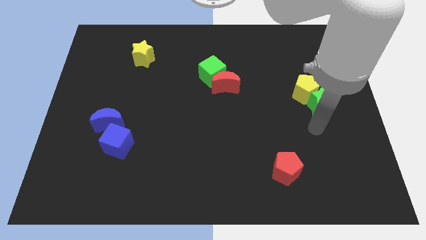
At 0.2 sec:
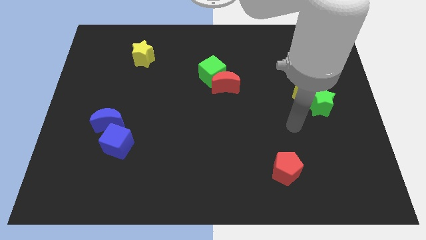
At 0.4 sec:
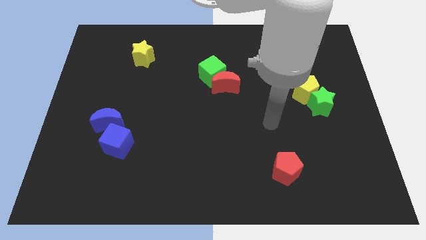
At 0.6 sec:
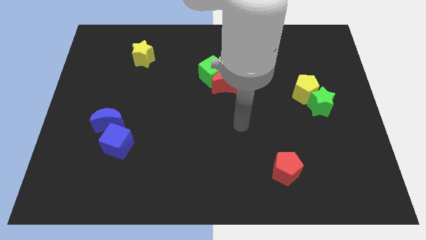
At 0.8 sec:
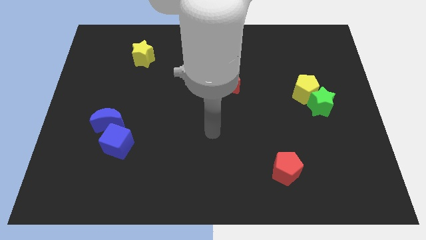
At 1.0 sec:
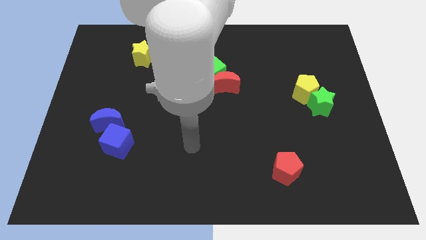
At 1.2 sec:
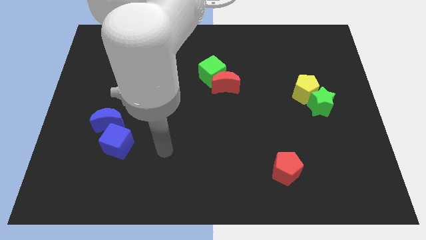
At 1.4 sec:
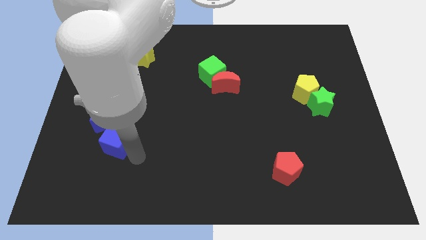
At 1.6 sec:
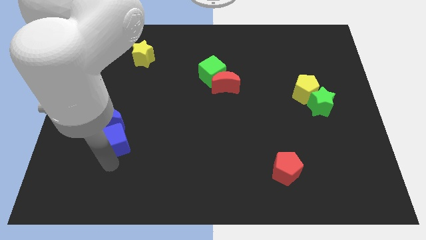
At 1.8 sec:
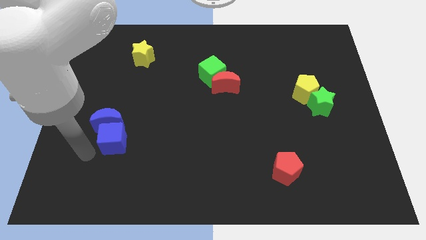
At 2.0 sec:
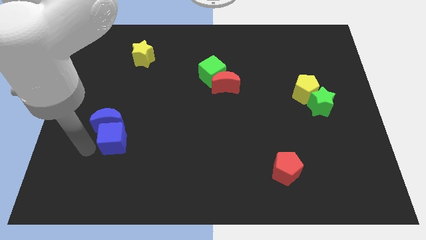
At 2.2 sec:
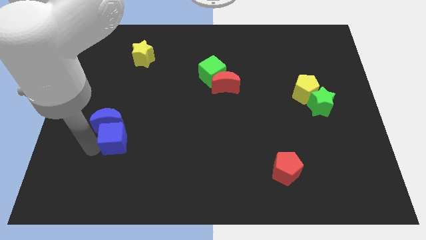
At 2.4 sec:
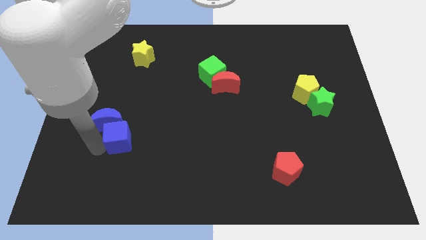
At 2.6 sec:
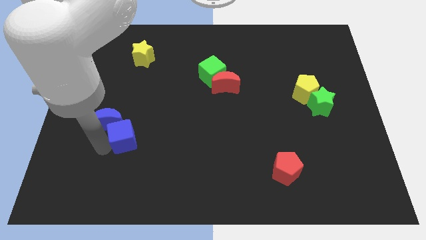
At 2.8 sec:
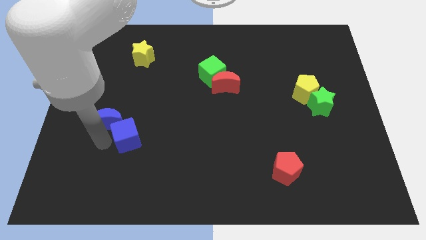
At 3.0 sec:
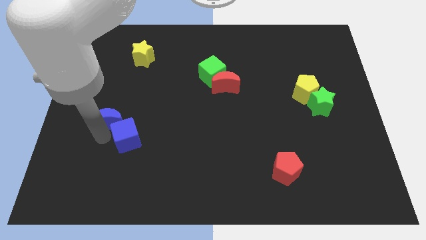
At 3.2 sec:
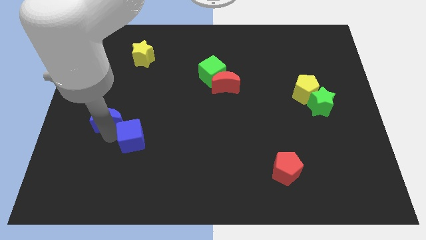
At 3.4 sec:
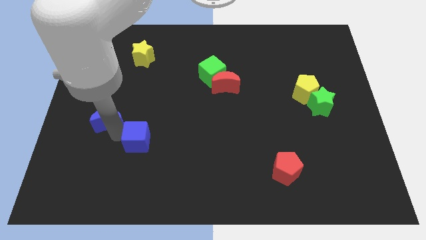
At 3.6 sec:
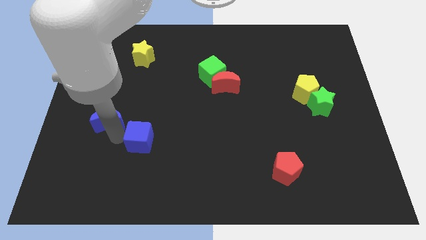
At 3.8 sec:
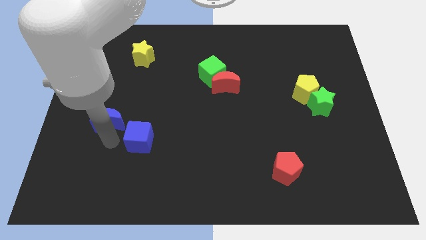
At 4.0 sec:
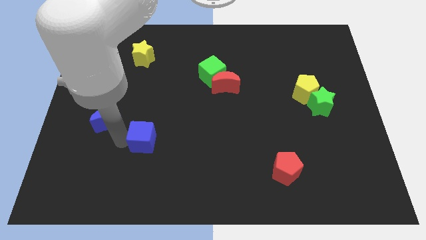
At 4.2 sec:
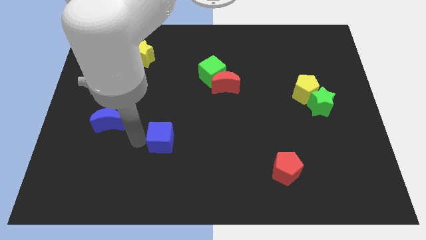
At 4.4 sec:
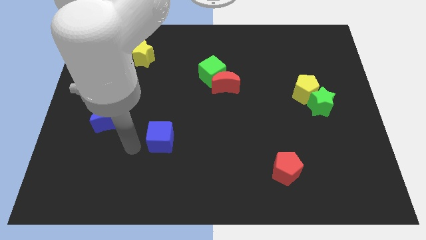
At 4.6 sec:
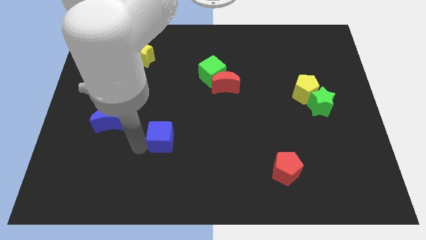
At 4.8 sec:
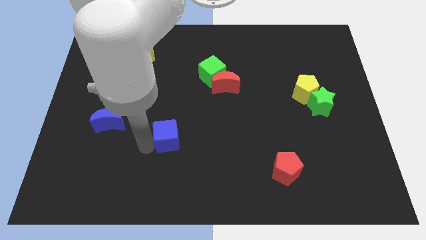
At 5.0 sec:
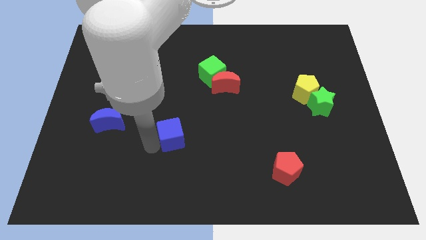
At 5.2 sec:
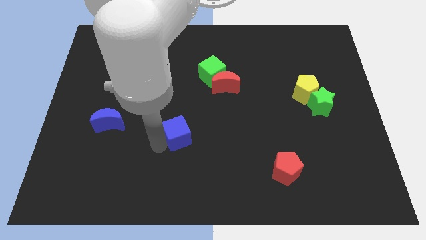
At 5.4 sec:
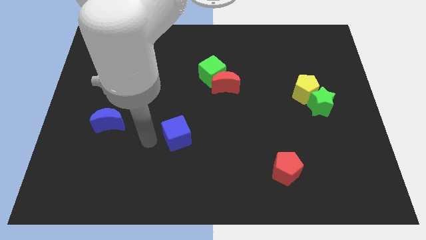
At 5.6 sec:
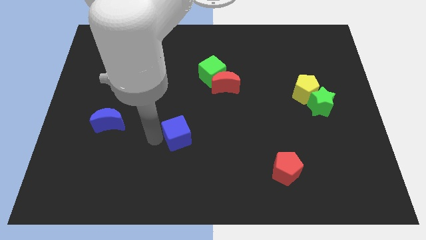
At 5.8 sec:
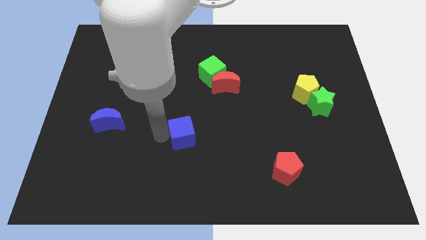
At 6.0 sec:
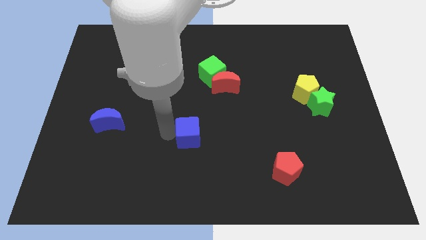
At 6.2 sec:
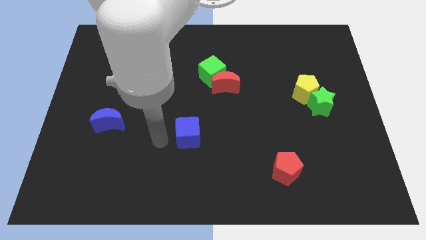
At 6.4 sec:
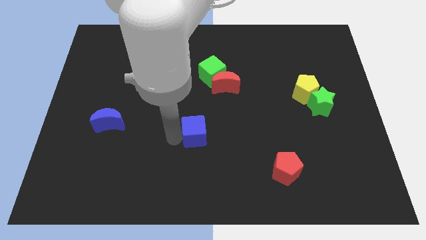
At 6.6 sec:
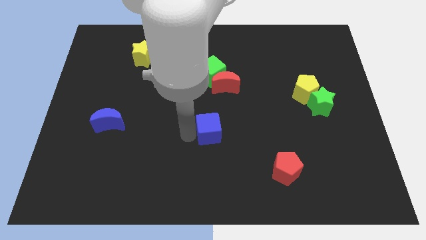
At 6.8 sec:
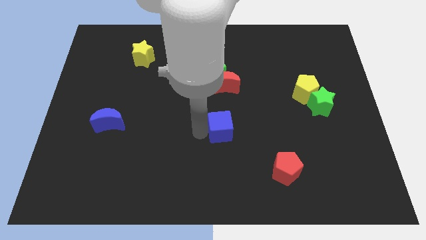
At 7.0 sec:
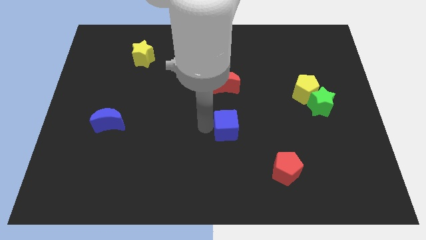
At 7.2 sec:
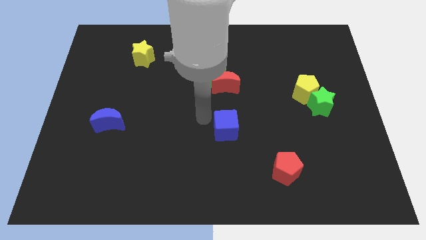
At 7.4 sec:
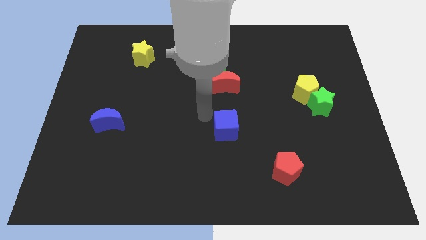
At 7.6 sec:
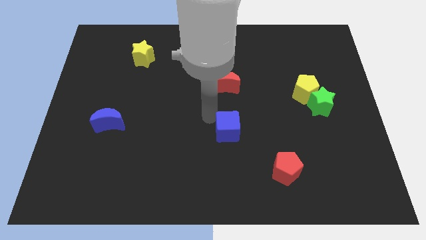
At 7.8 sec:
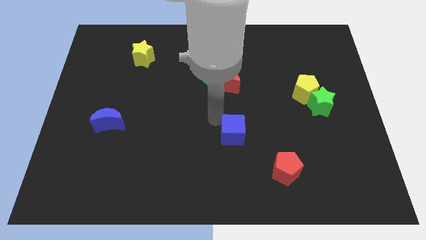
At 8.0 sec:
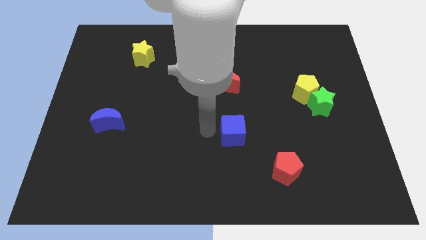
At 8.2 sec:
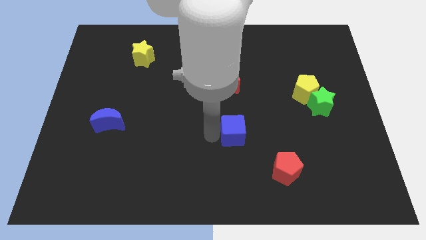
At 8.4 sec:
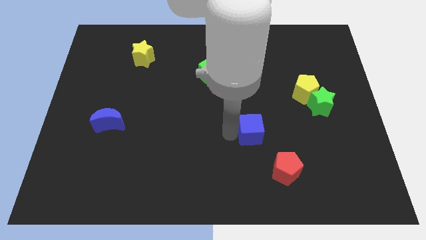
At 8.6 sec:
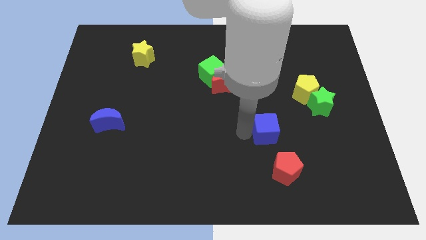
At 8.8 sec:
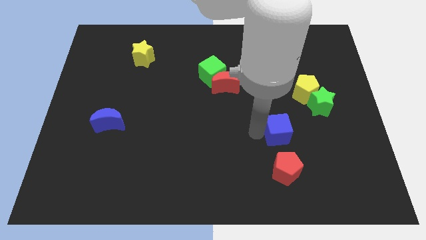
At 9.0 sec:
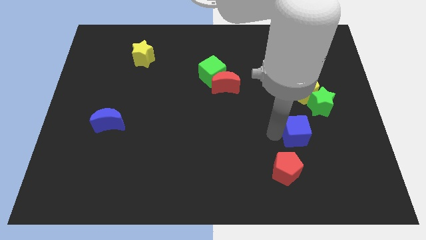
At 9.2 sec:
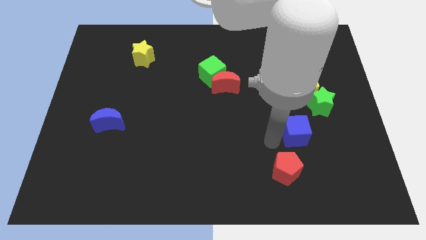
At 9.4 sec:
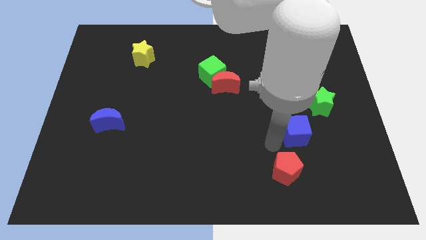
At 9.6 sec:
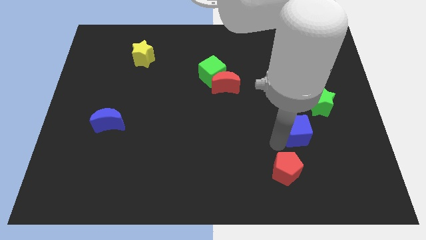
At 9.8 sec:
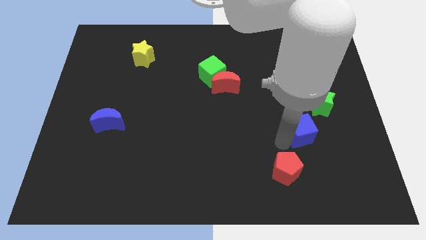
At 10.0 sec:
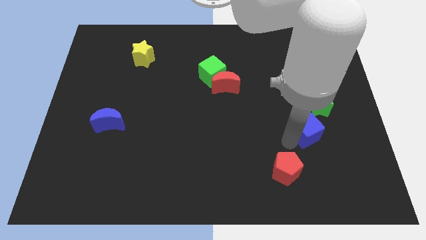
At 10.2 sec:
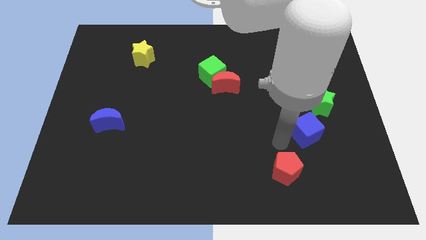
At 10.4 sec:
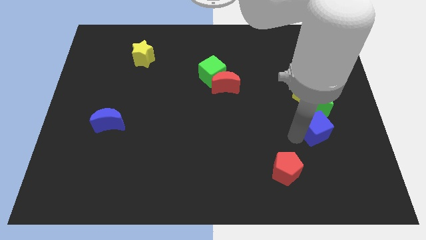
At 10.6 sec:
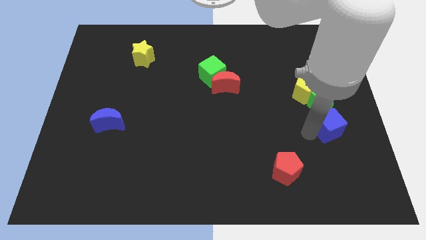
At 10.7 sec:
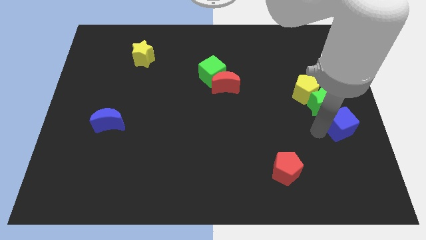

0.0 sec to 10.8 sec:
push the blue cube to the right side of the board

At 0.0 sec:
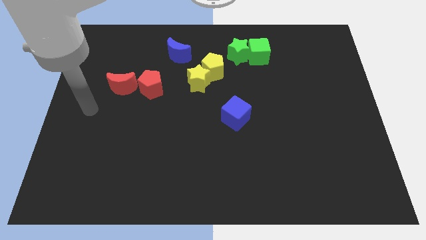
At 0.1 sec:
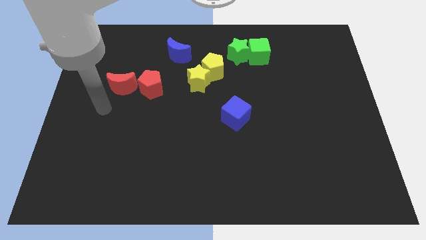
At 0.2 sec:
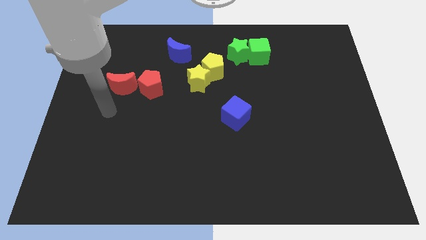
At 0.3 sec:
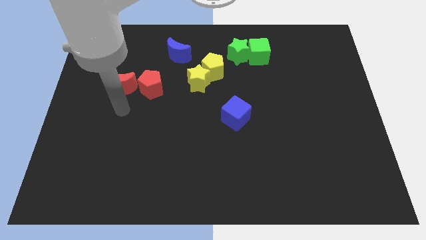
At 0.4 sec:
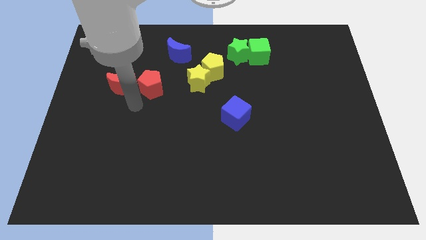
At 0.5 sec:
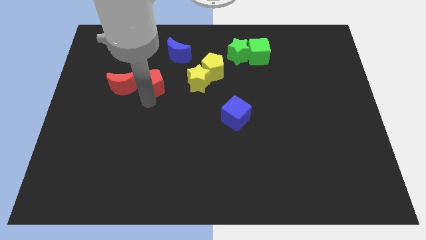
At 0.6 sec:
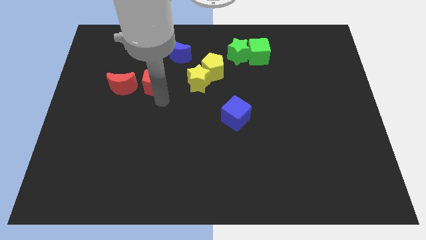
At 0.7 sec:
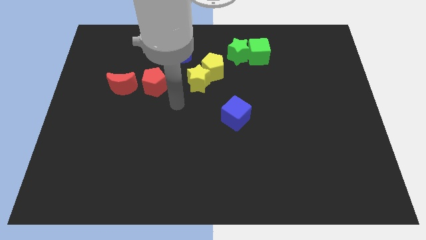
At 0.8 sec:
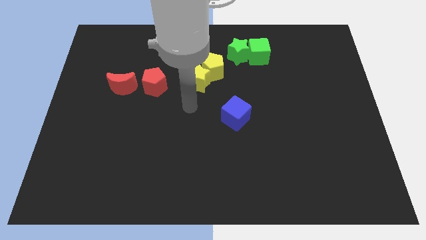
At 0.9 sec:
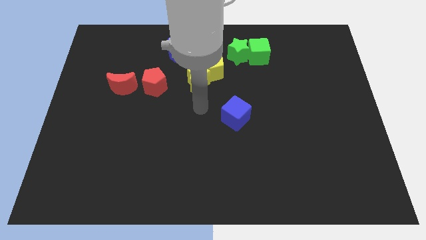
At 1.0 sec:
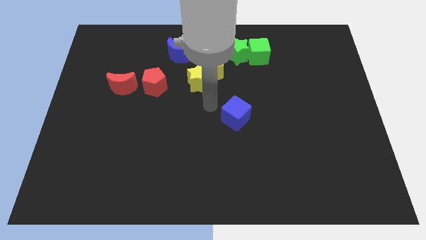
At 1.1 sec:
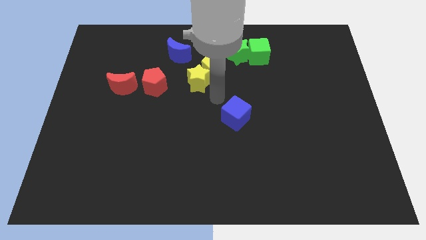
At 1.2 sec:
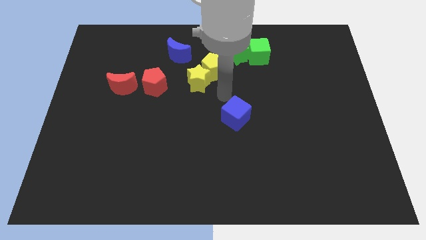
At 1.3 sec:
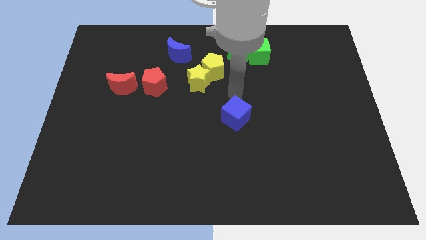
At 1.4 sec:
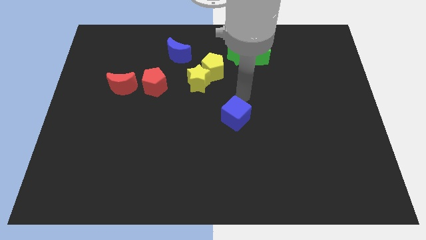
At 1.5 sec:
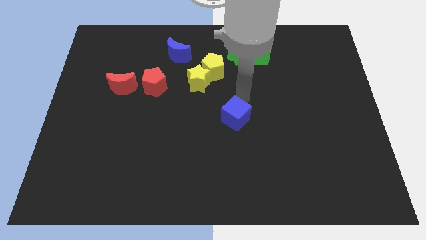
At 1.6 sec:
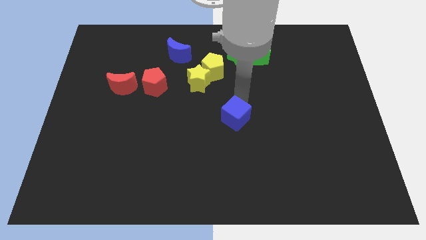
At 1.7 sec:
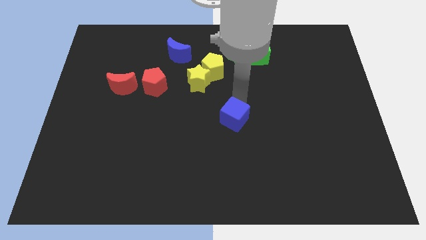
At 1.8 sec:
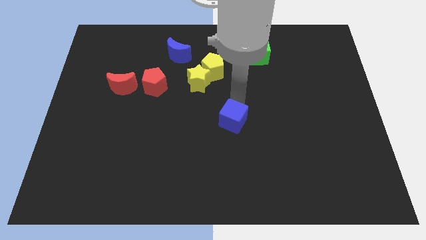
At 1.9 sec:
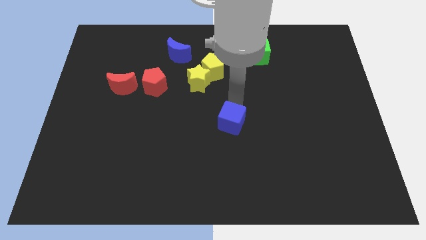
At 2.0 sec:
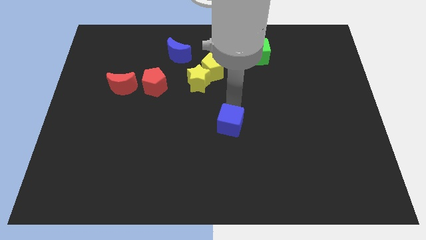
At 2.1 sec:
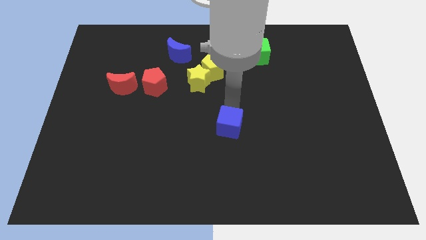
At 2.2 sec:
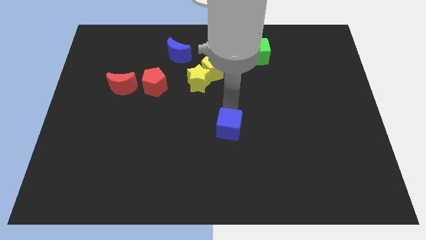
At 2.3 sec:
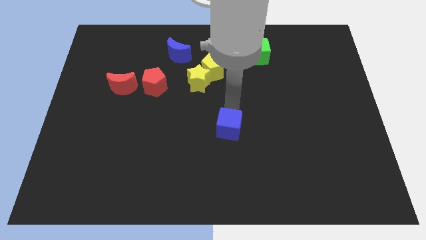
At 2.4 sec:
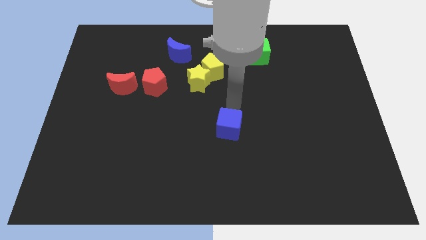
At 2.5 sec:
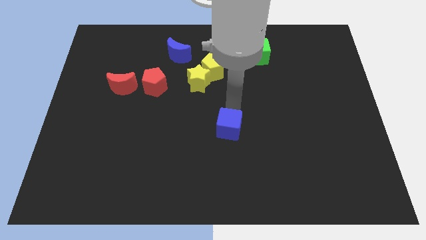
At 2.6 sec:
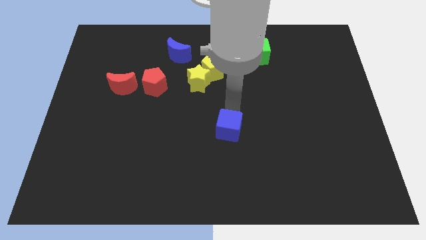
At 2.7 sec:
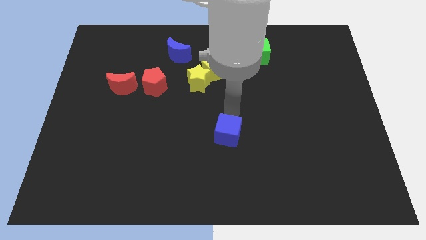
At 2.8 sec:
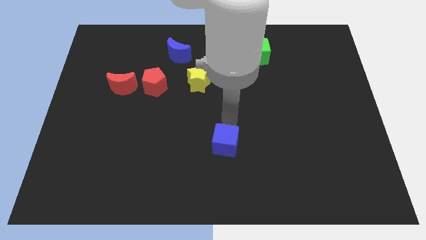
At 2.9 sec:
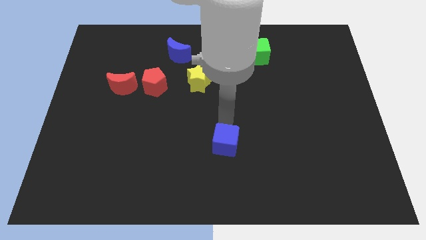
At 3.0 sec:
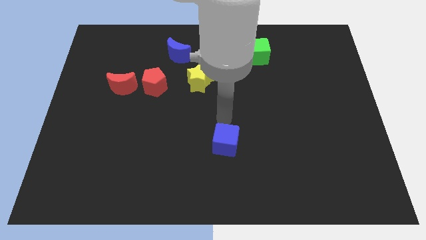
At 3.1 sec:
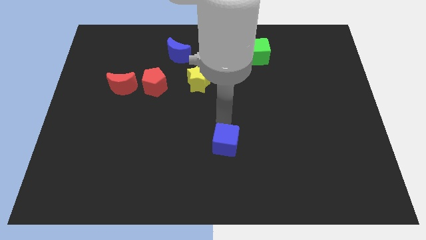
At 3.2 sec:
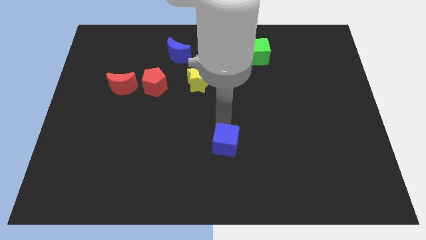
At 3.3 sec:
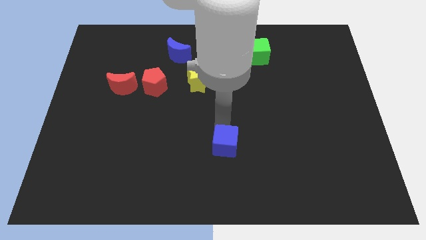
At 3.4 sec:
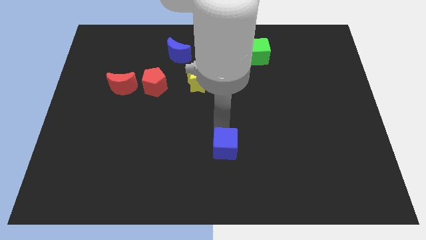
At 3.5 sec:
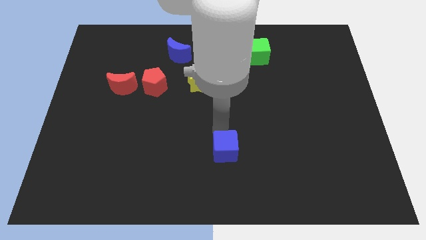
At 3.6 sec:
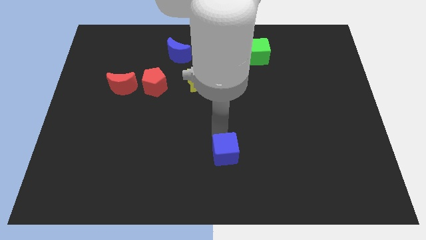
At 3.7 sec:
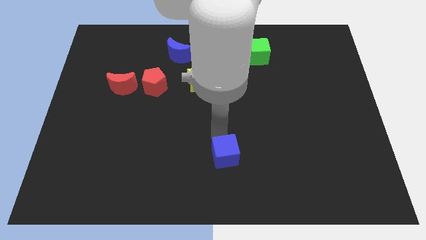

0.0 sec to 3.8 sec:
put the blue cube to the bottom side
